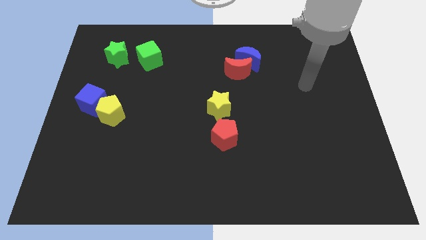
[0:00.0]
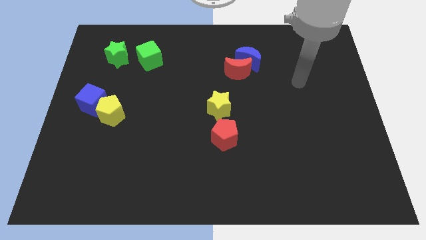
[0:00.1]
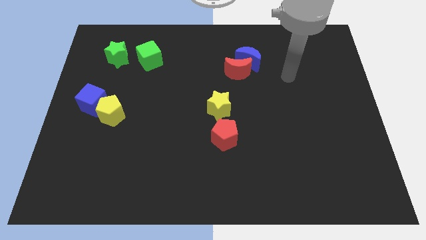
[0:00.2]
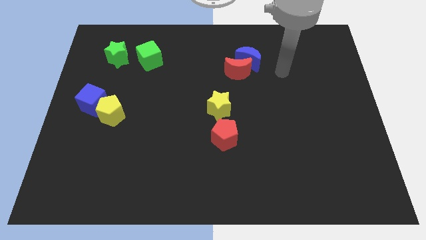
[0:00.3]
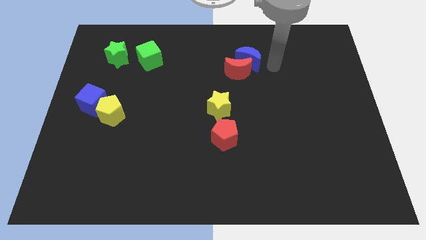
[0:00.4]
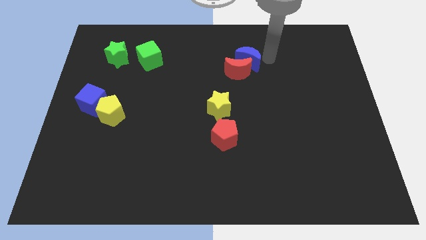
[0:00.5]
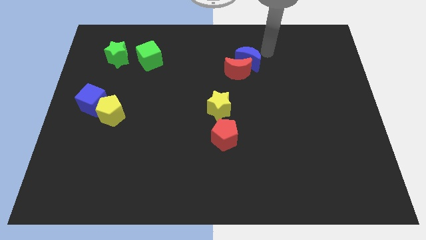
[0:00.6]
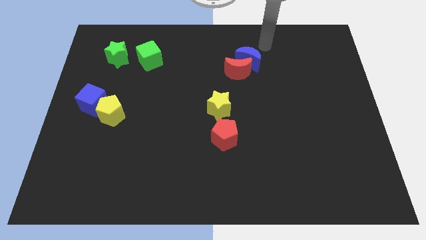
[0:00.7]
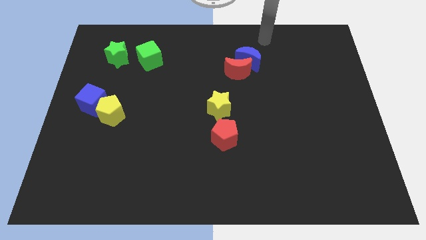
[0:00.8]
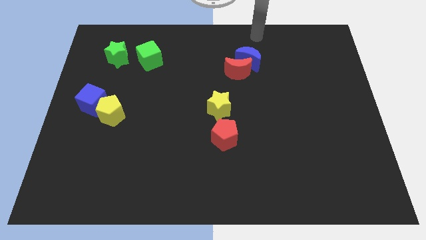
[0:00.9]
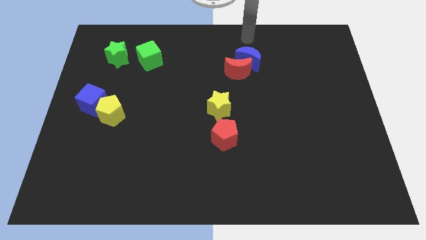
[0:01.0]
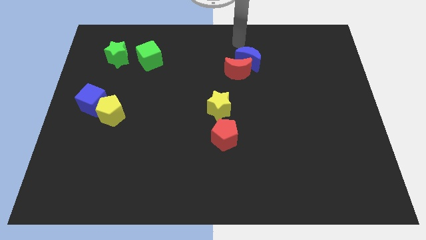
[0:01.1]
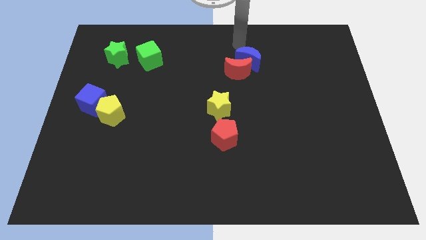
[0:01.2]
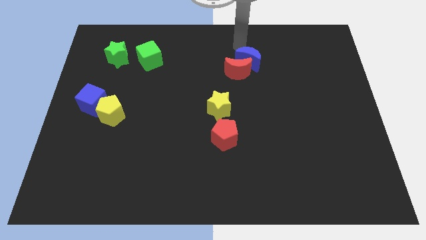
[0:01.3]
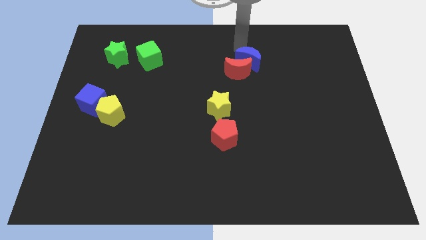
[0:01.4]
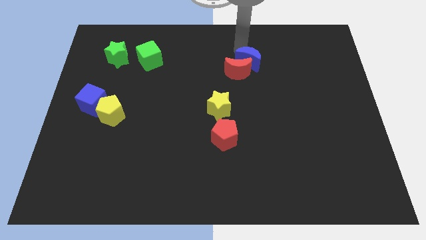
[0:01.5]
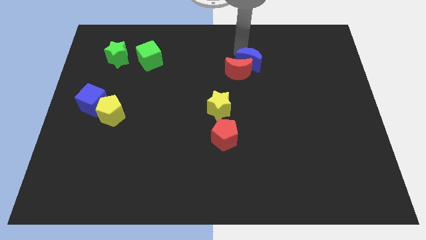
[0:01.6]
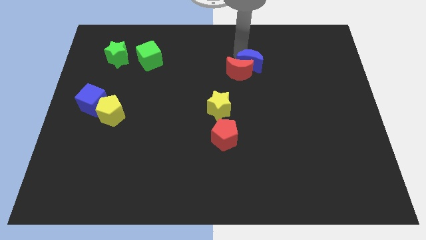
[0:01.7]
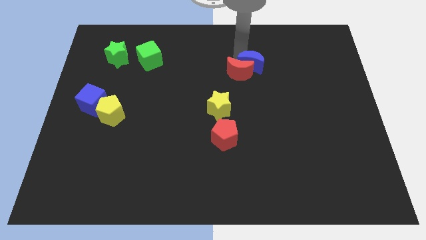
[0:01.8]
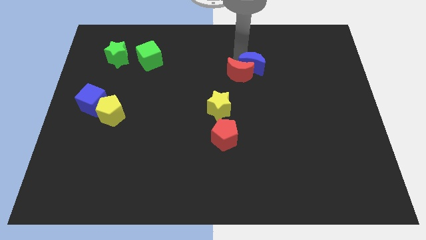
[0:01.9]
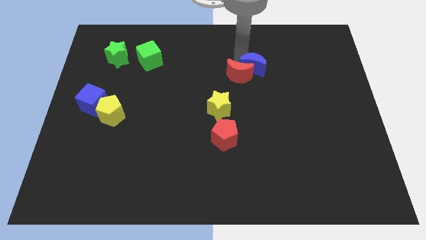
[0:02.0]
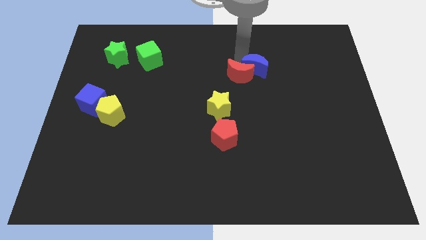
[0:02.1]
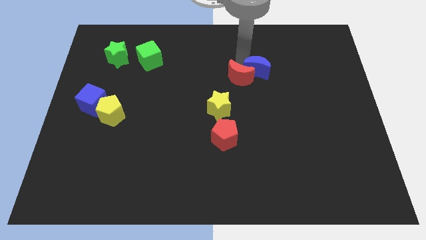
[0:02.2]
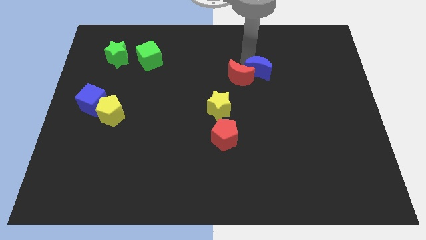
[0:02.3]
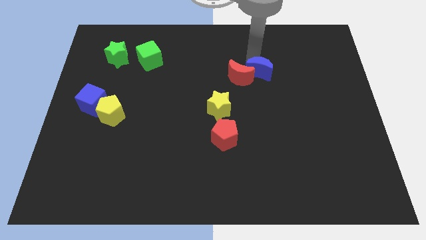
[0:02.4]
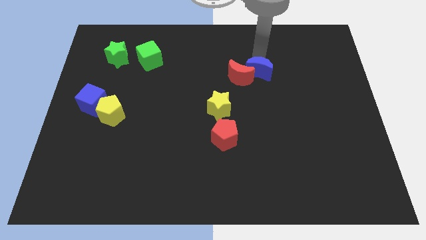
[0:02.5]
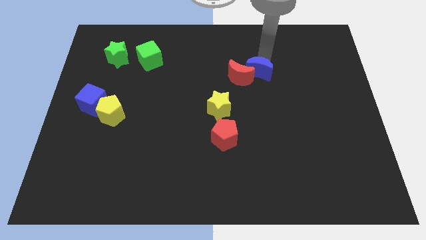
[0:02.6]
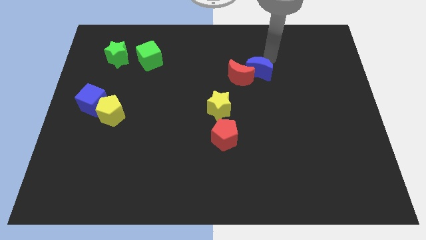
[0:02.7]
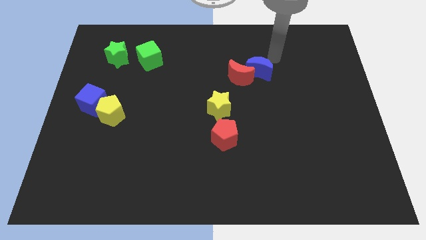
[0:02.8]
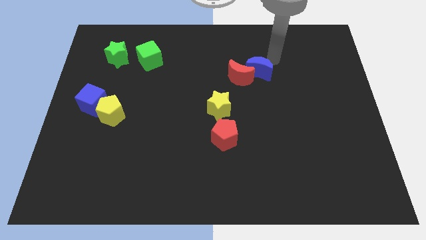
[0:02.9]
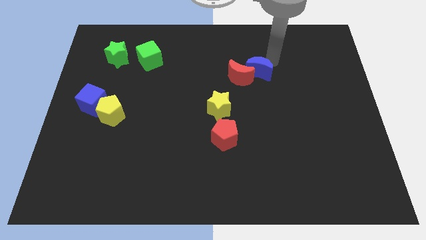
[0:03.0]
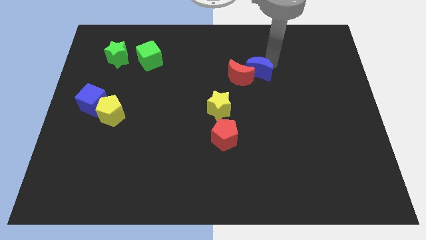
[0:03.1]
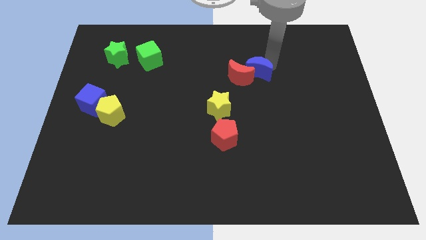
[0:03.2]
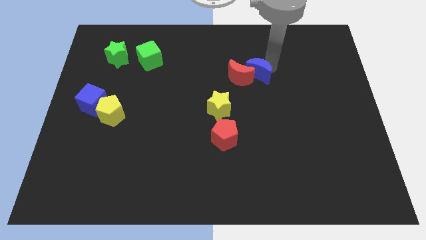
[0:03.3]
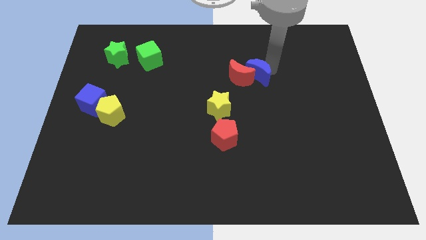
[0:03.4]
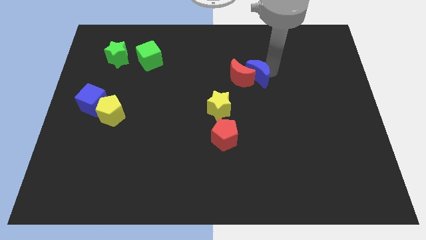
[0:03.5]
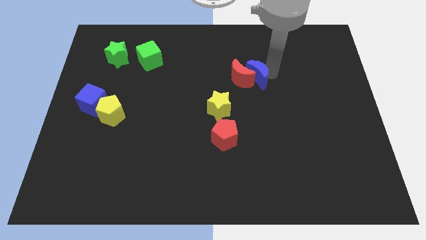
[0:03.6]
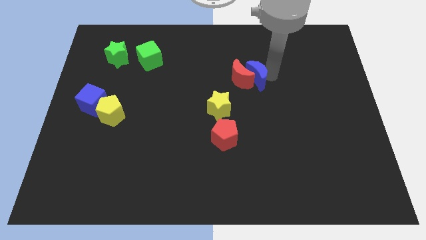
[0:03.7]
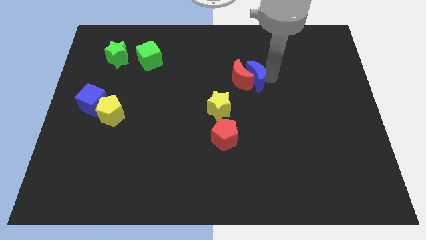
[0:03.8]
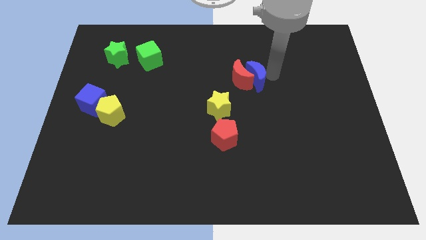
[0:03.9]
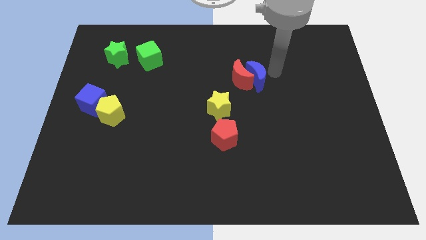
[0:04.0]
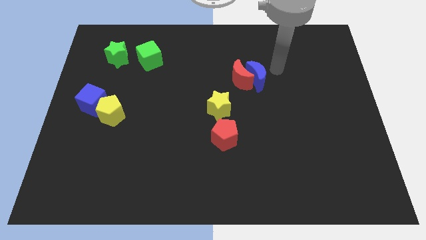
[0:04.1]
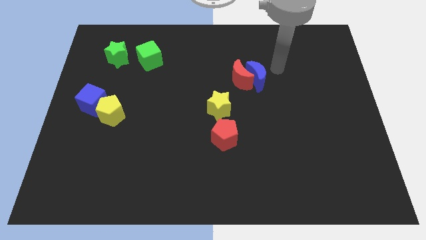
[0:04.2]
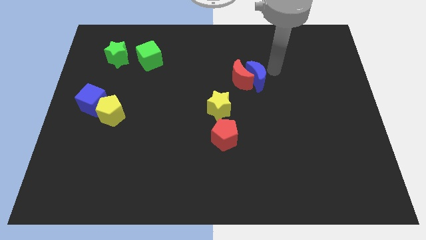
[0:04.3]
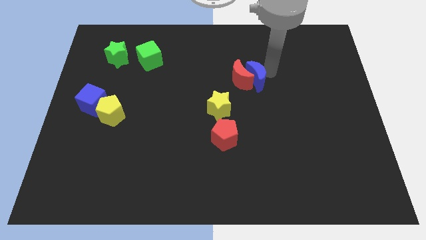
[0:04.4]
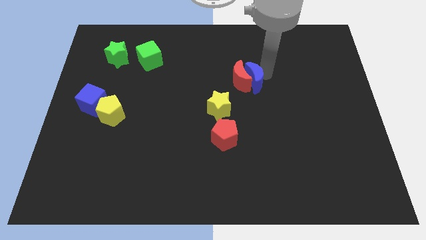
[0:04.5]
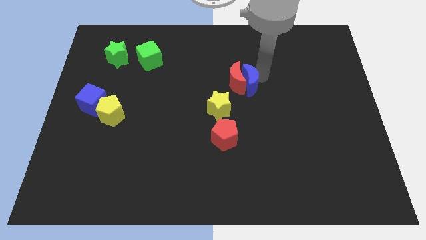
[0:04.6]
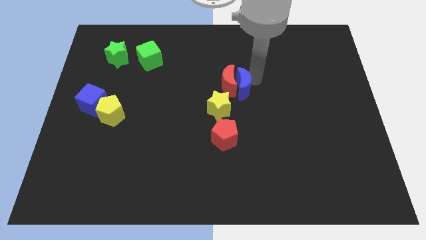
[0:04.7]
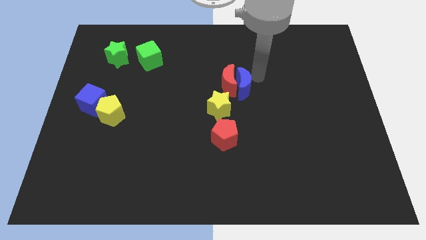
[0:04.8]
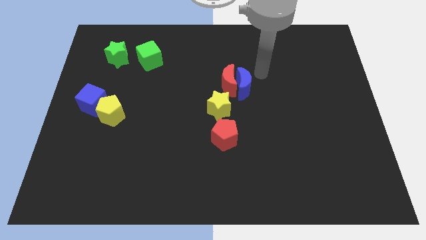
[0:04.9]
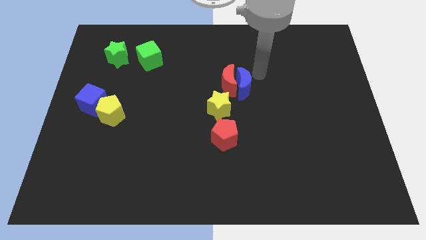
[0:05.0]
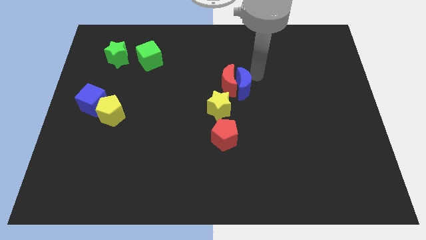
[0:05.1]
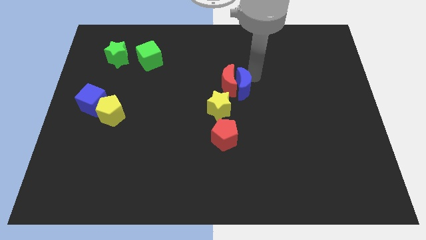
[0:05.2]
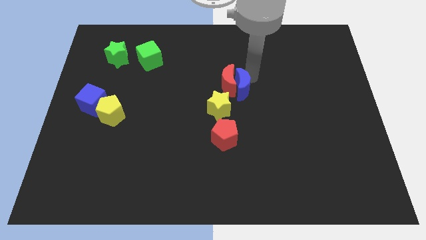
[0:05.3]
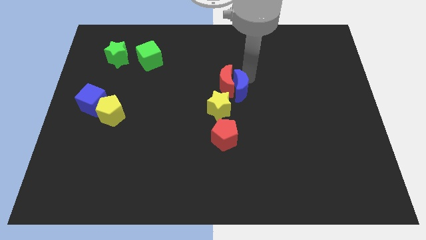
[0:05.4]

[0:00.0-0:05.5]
push the blue moon above the red pentagon

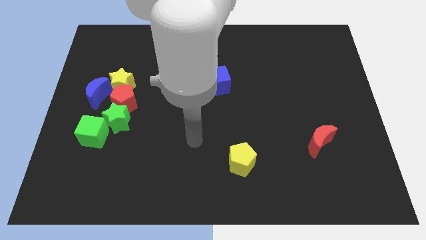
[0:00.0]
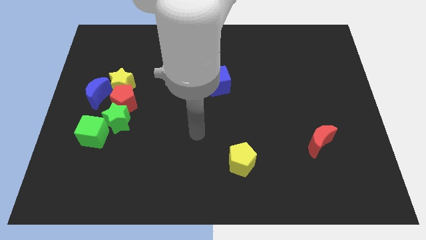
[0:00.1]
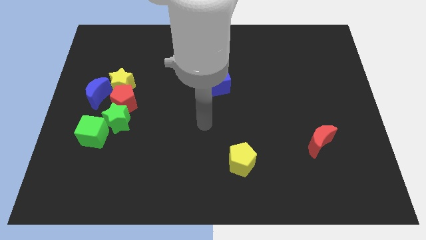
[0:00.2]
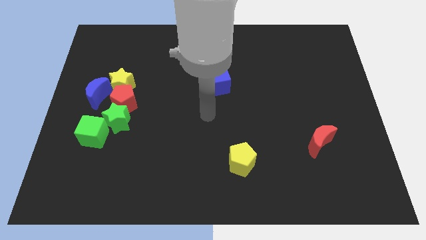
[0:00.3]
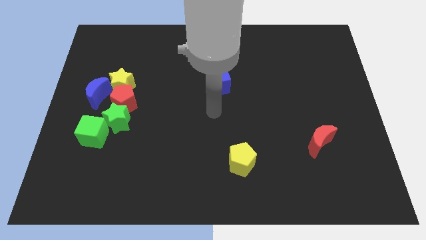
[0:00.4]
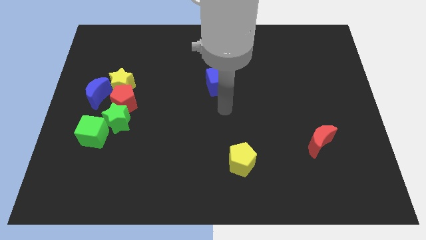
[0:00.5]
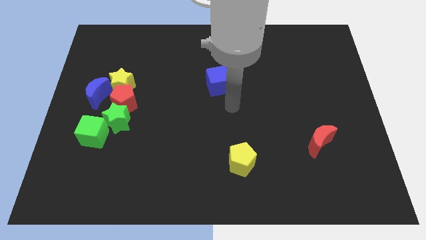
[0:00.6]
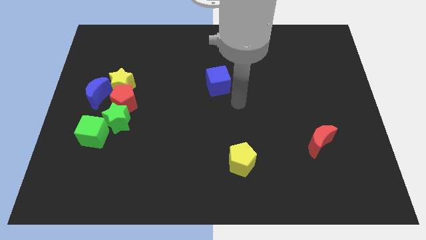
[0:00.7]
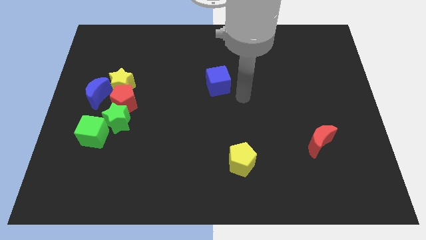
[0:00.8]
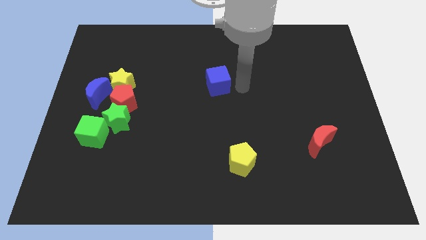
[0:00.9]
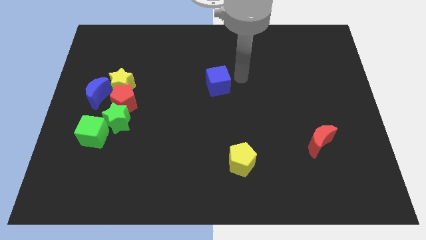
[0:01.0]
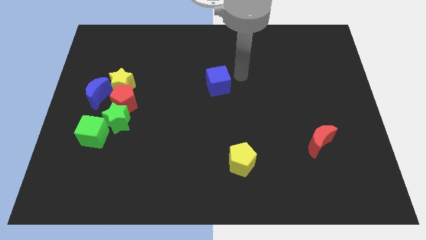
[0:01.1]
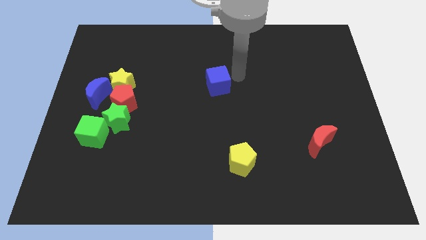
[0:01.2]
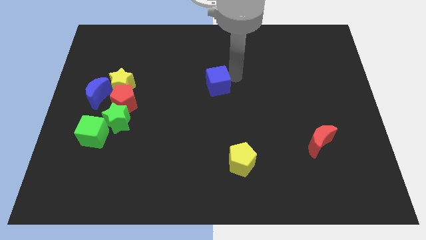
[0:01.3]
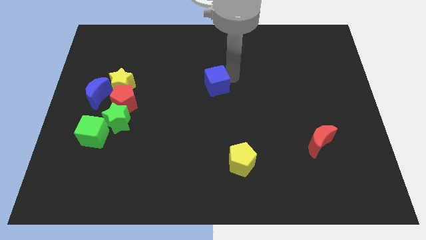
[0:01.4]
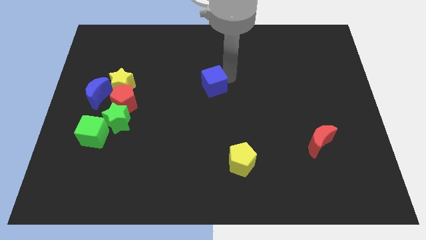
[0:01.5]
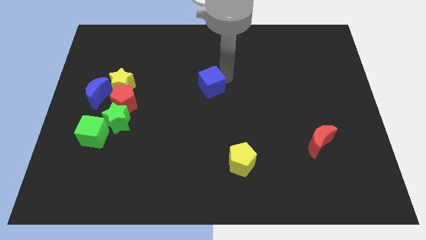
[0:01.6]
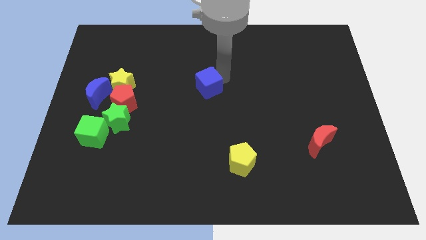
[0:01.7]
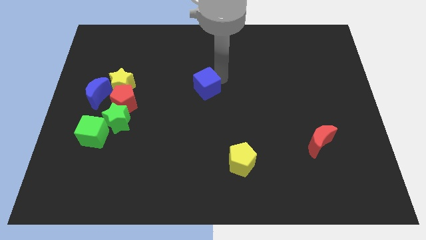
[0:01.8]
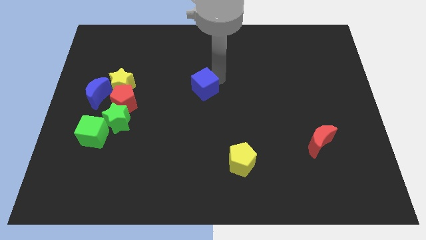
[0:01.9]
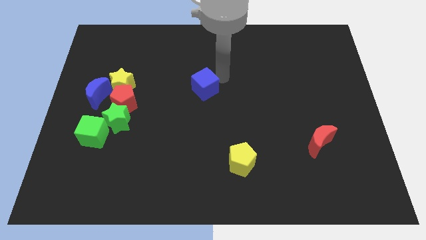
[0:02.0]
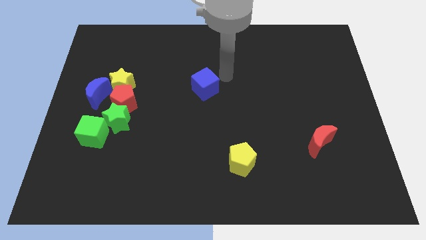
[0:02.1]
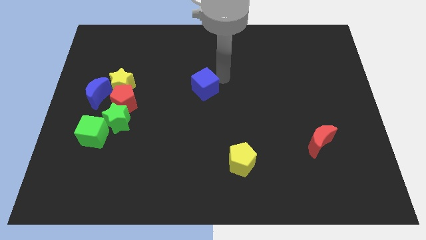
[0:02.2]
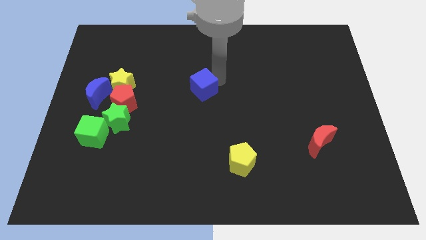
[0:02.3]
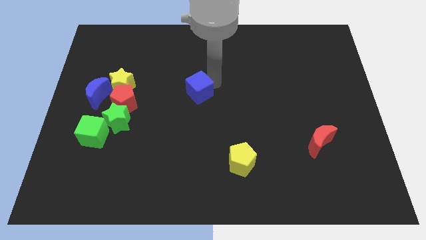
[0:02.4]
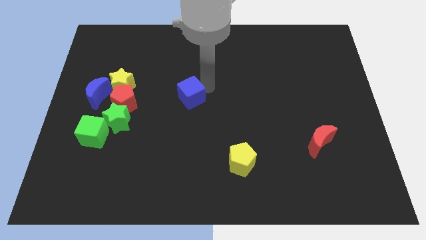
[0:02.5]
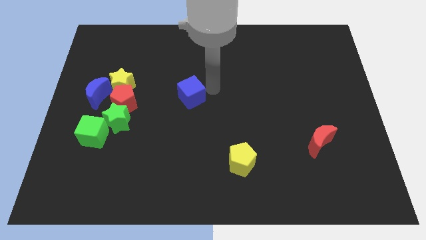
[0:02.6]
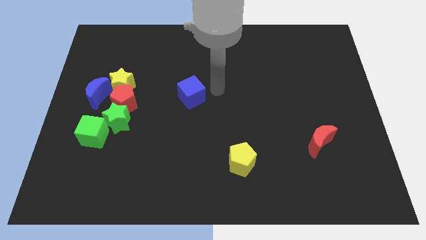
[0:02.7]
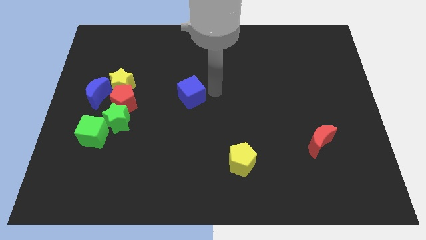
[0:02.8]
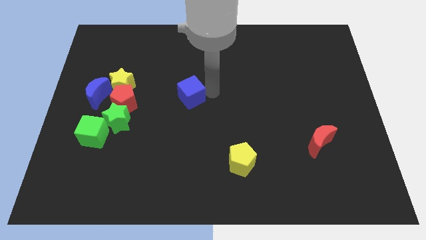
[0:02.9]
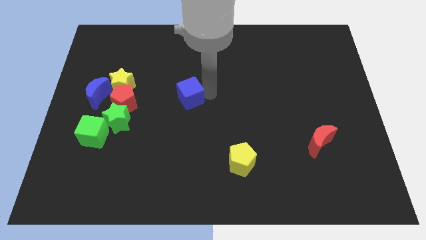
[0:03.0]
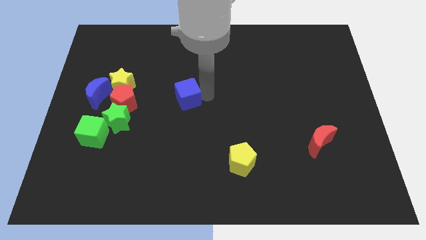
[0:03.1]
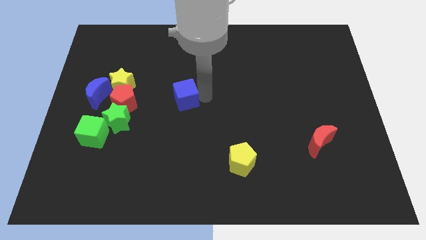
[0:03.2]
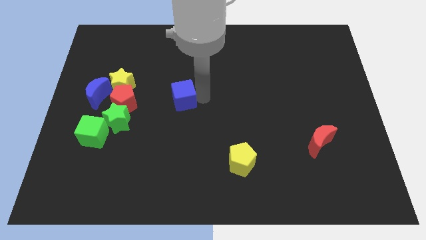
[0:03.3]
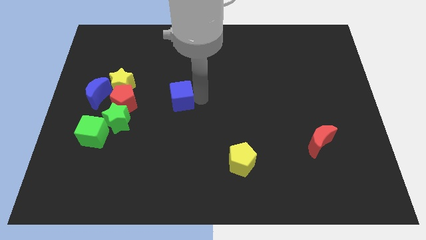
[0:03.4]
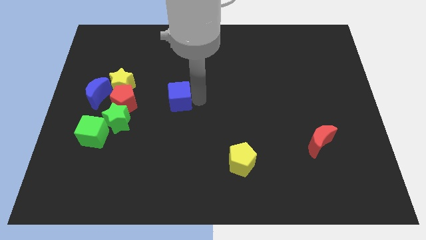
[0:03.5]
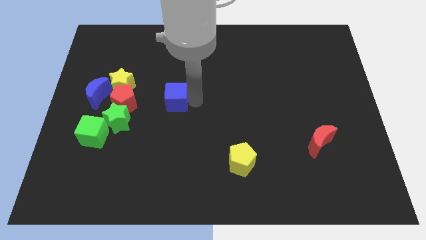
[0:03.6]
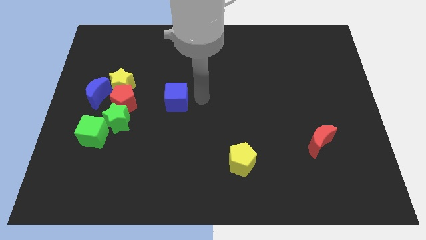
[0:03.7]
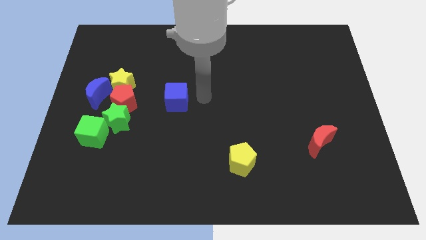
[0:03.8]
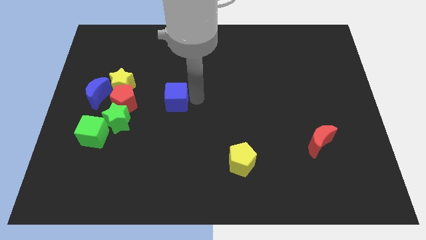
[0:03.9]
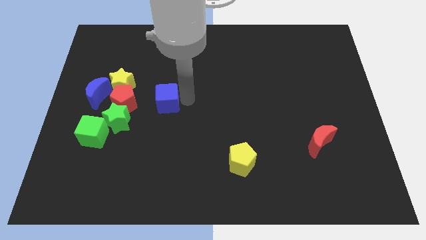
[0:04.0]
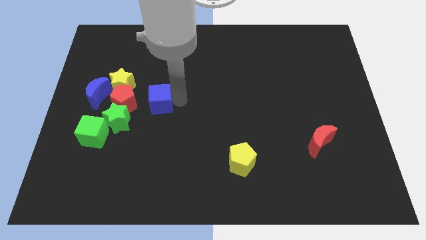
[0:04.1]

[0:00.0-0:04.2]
push the blue cube to the top right of the green star
